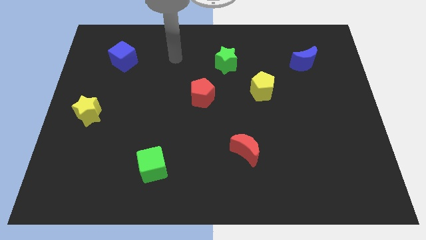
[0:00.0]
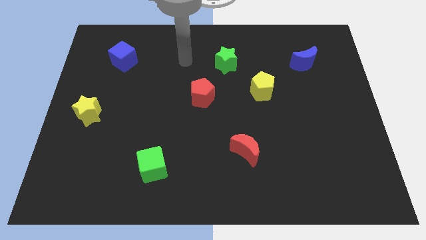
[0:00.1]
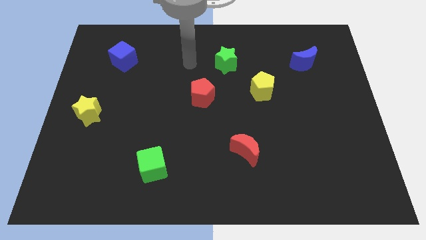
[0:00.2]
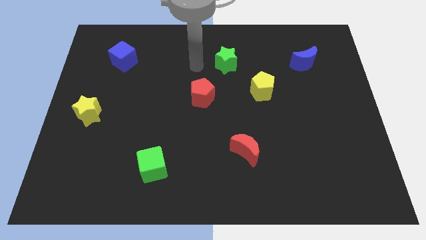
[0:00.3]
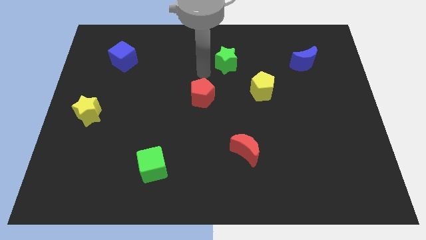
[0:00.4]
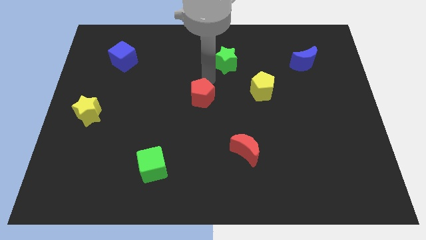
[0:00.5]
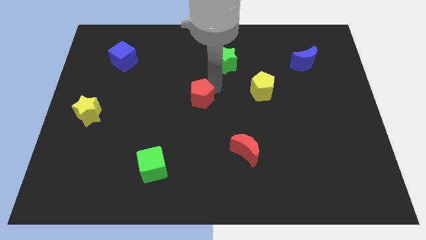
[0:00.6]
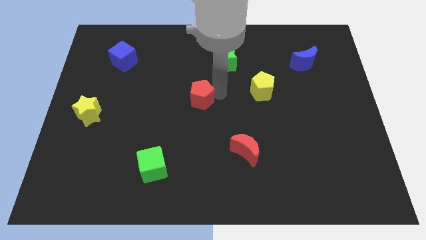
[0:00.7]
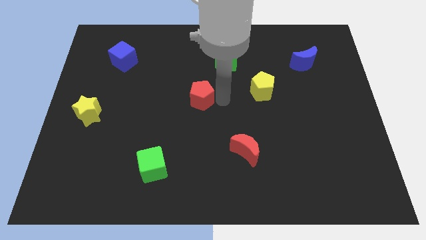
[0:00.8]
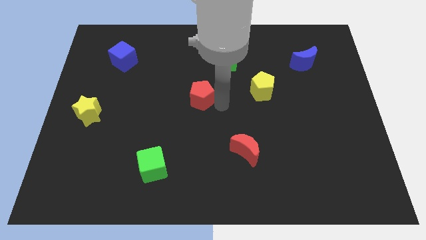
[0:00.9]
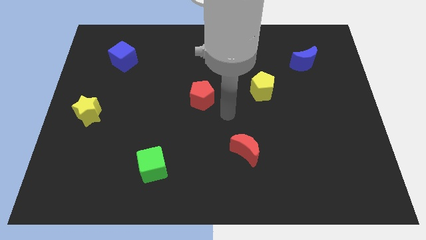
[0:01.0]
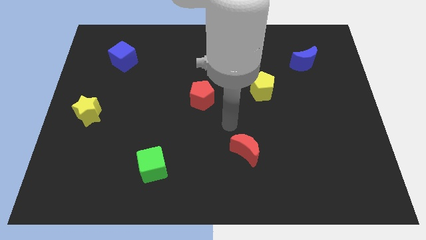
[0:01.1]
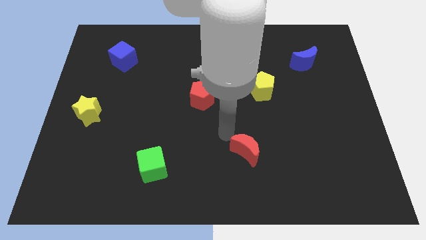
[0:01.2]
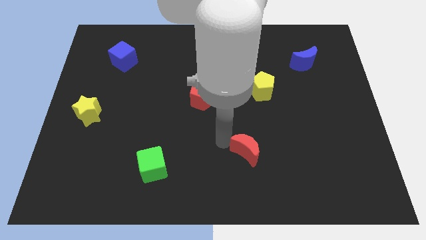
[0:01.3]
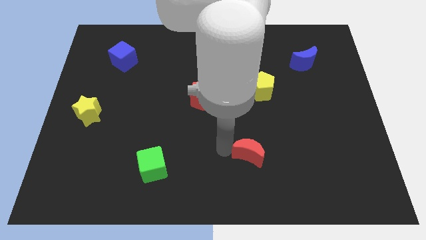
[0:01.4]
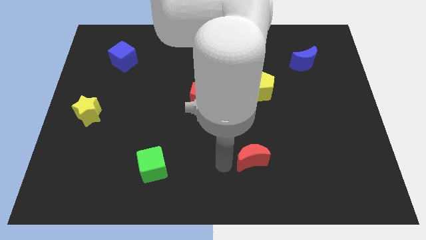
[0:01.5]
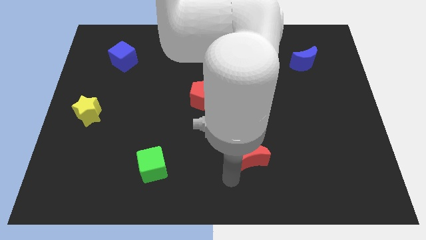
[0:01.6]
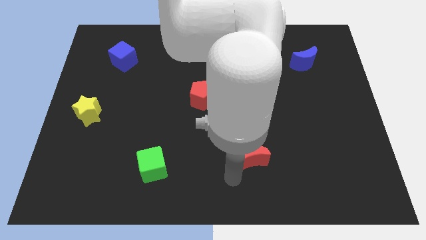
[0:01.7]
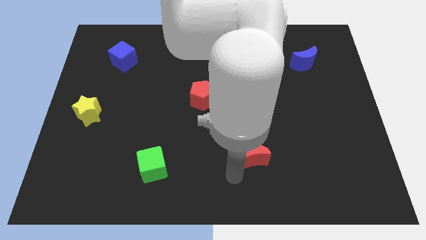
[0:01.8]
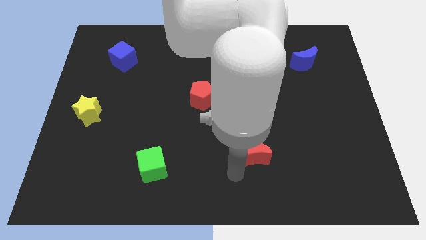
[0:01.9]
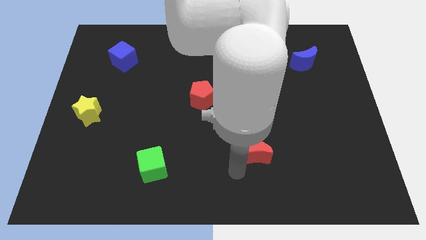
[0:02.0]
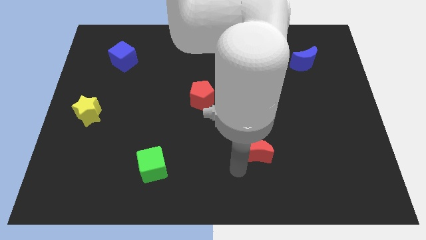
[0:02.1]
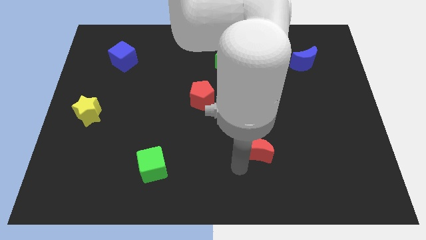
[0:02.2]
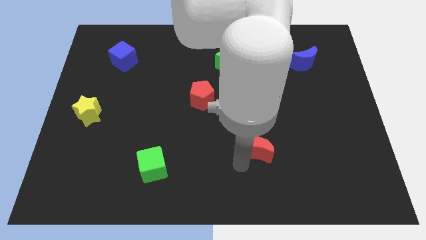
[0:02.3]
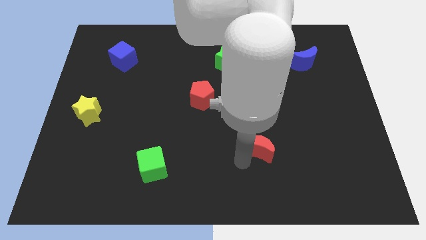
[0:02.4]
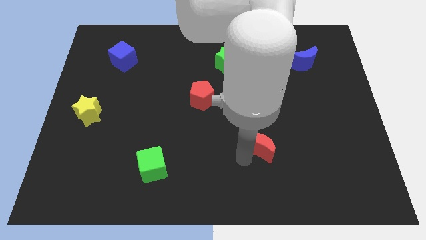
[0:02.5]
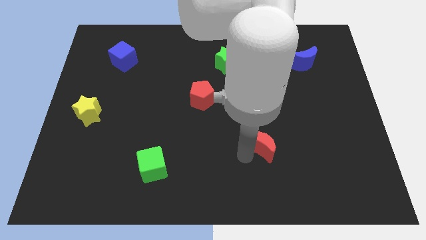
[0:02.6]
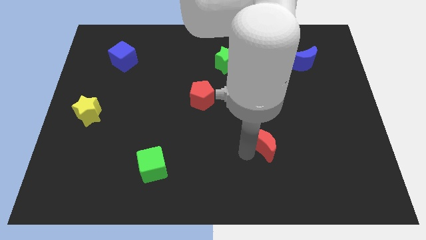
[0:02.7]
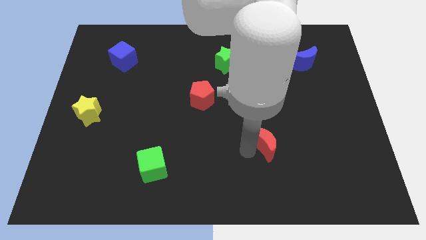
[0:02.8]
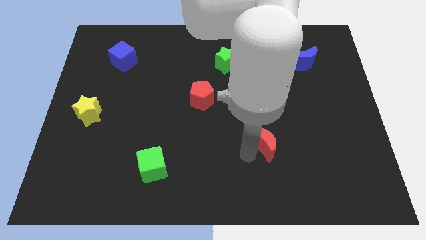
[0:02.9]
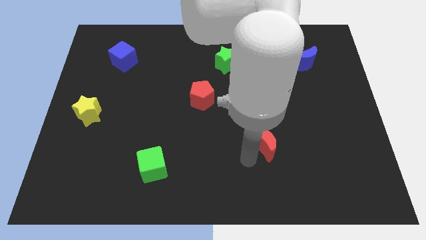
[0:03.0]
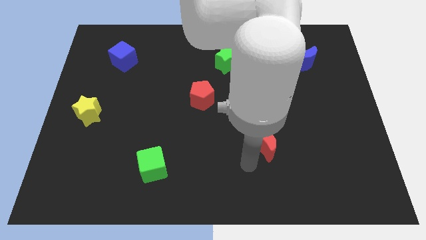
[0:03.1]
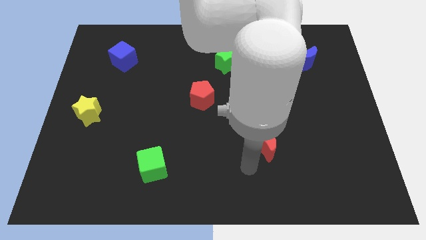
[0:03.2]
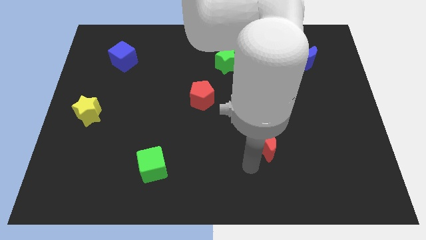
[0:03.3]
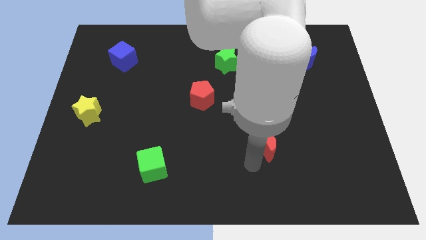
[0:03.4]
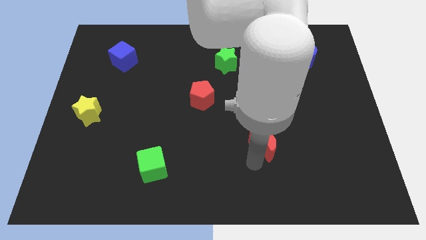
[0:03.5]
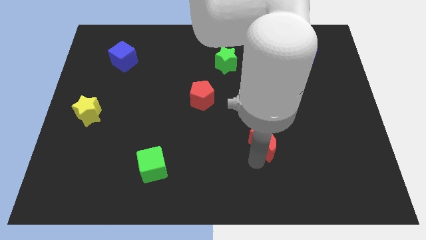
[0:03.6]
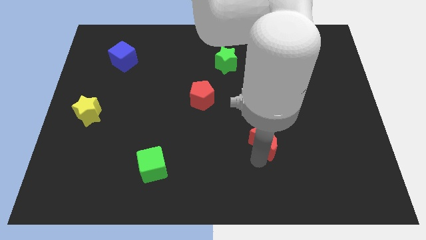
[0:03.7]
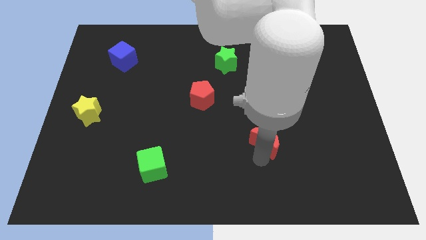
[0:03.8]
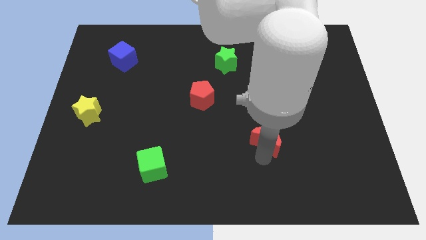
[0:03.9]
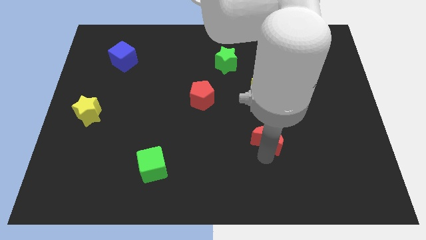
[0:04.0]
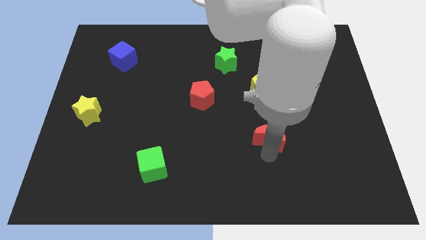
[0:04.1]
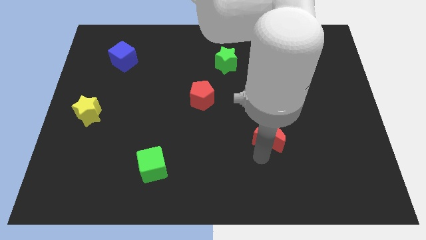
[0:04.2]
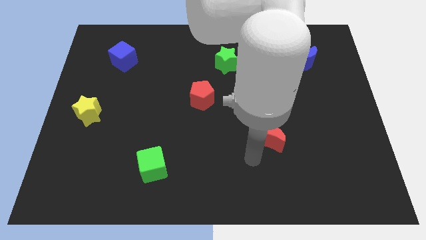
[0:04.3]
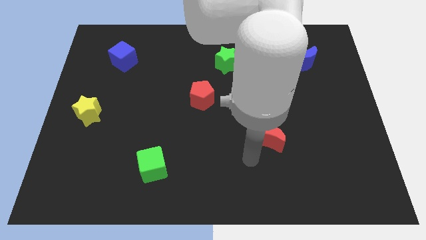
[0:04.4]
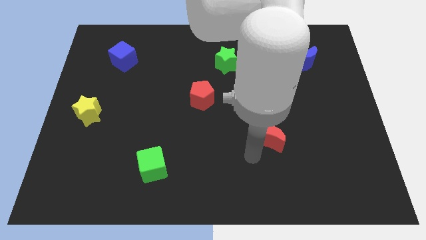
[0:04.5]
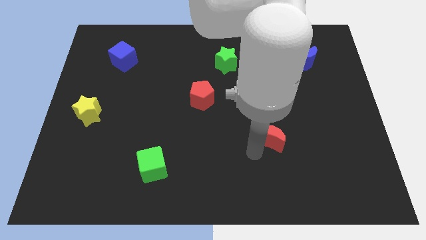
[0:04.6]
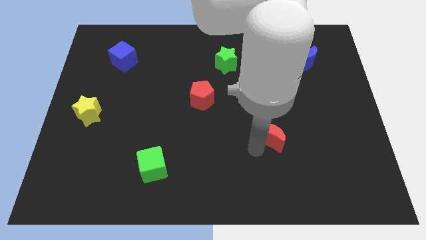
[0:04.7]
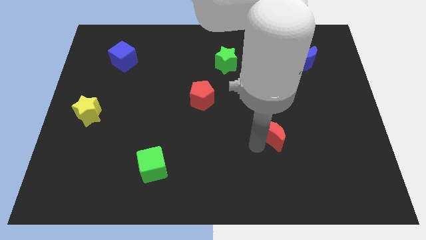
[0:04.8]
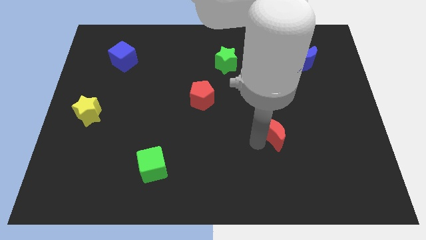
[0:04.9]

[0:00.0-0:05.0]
move the red moon diagonally up and to the right slightly

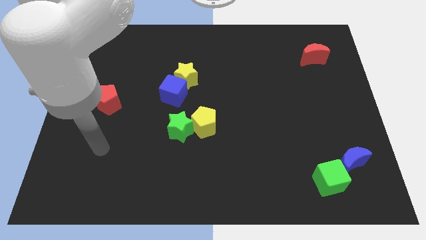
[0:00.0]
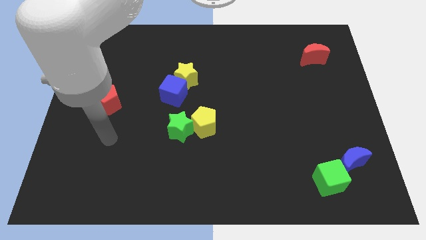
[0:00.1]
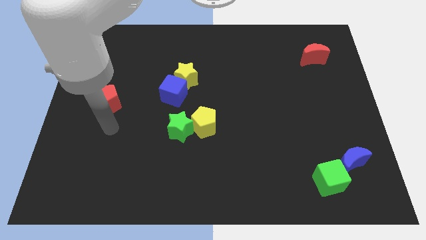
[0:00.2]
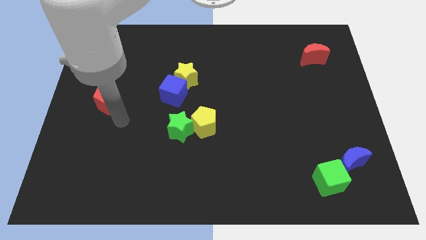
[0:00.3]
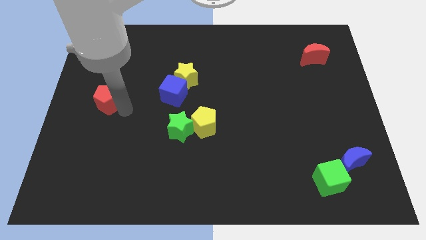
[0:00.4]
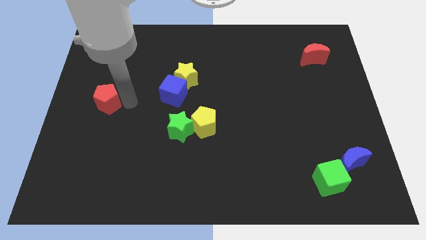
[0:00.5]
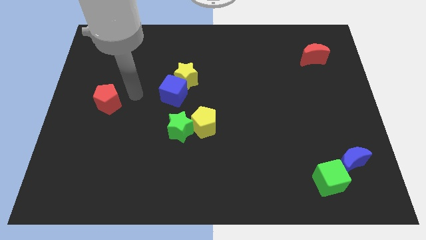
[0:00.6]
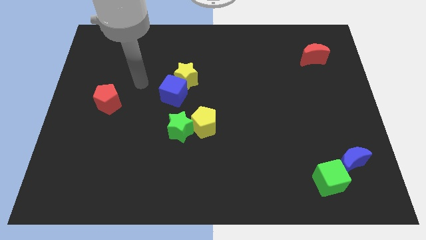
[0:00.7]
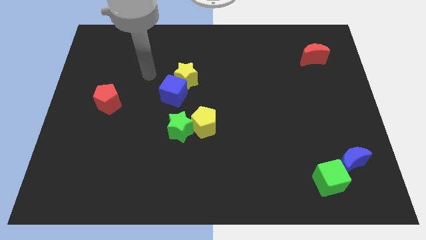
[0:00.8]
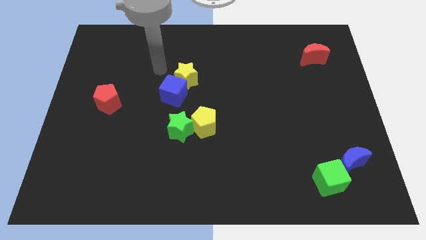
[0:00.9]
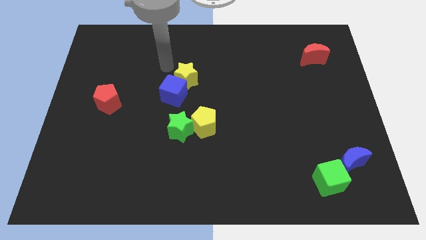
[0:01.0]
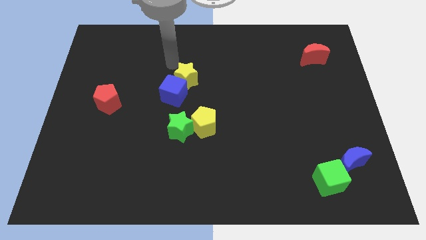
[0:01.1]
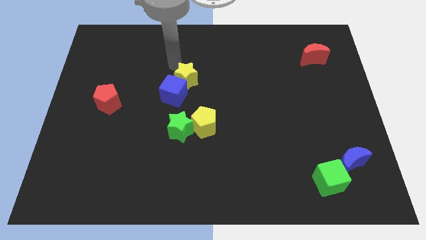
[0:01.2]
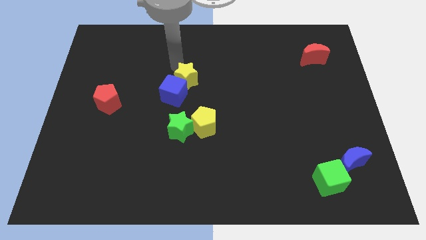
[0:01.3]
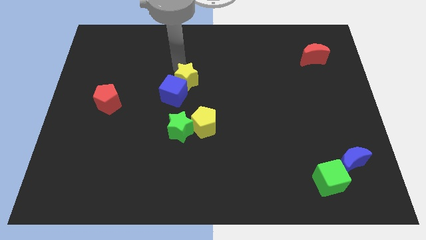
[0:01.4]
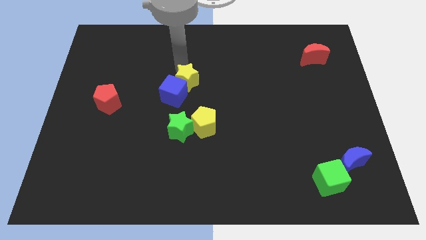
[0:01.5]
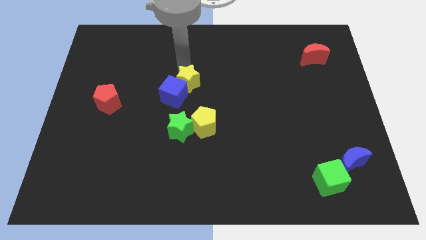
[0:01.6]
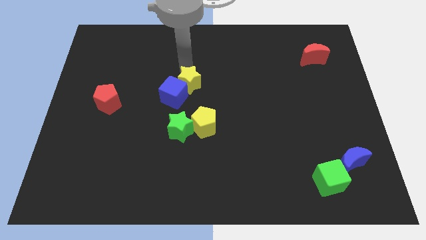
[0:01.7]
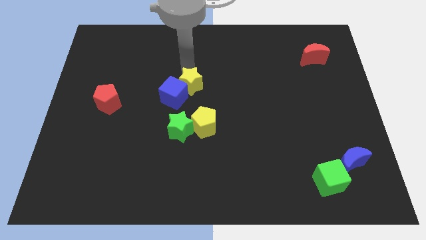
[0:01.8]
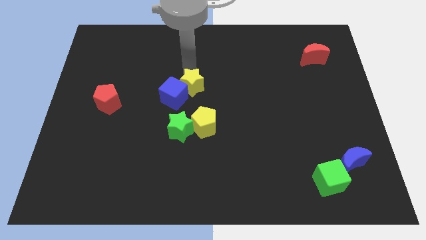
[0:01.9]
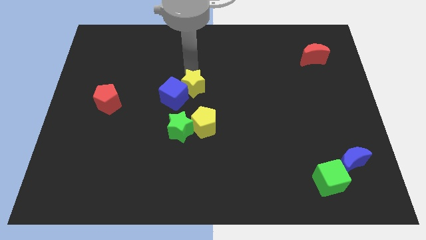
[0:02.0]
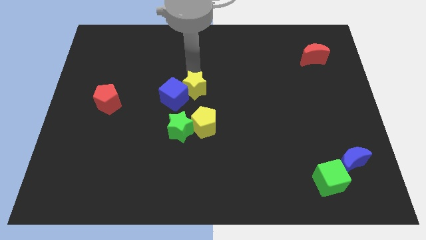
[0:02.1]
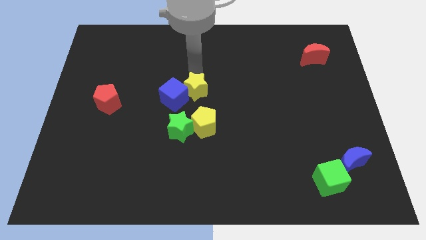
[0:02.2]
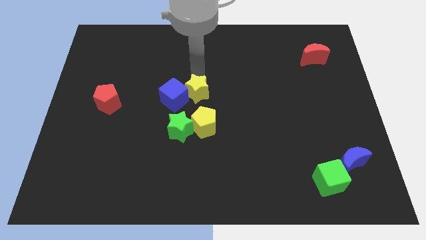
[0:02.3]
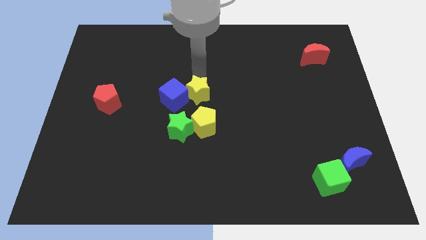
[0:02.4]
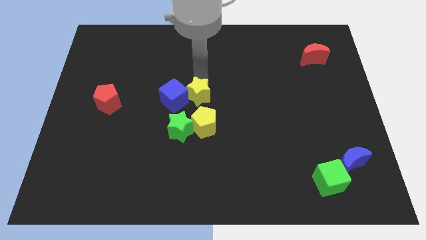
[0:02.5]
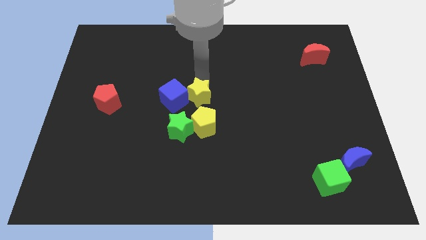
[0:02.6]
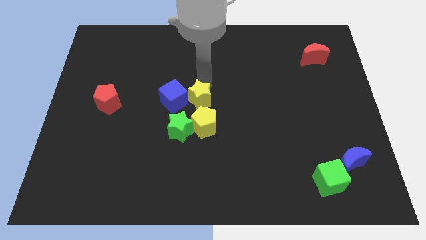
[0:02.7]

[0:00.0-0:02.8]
slide the yellow star downwards and then right somewhat

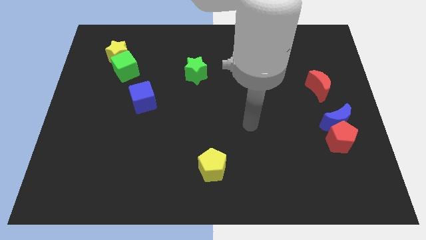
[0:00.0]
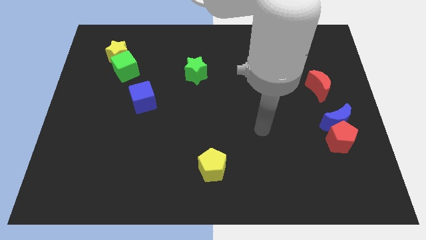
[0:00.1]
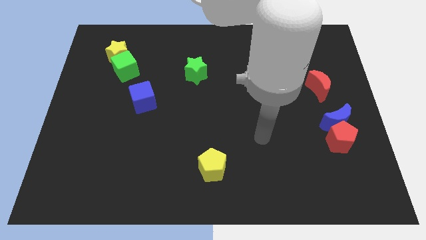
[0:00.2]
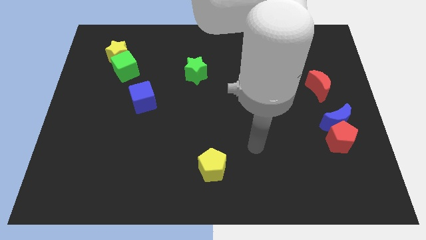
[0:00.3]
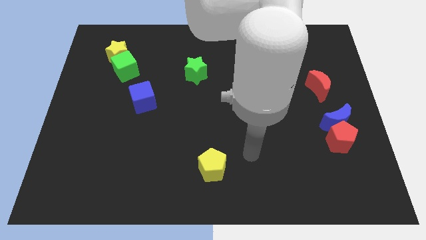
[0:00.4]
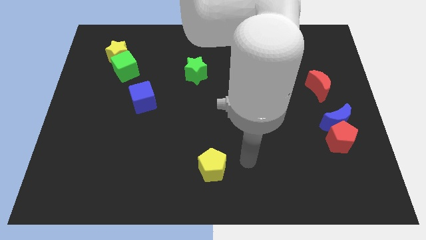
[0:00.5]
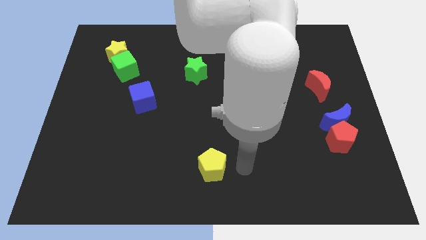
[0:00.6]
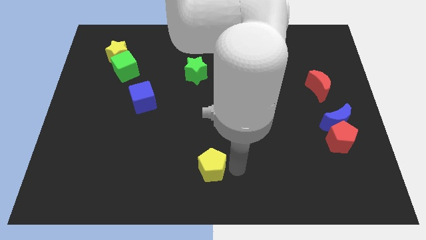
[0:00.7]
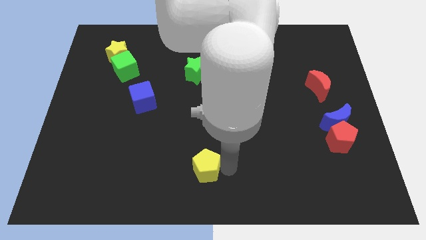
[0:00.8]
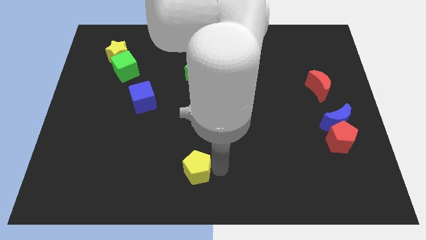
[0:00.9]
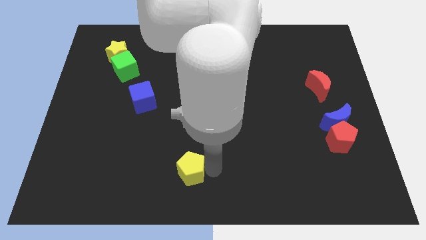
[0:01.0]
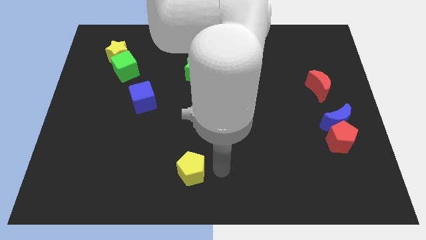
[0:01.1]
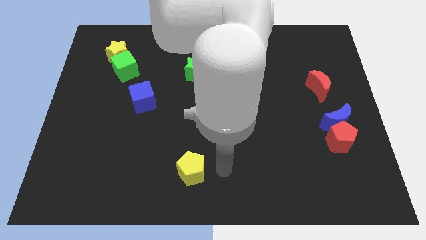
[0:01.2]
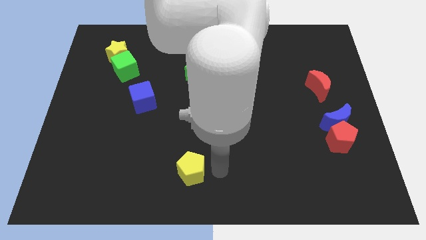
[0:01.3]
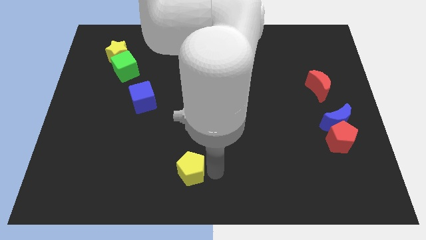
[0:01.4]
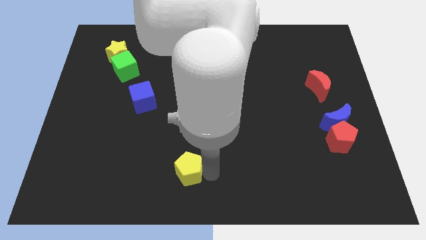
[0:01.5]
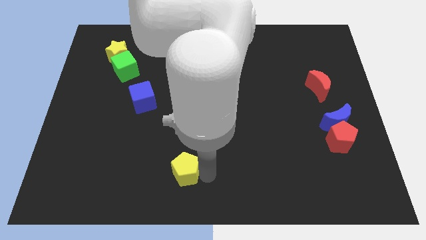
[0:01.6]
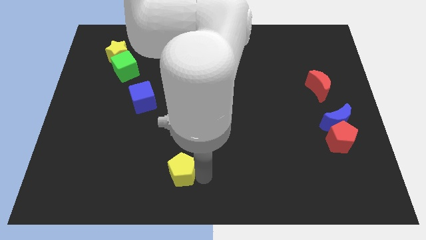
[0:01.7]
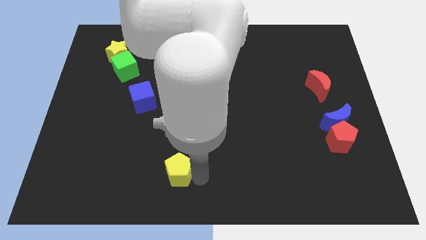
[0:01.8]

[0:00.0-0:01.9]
slide the yellow pentagon a bit to the left
